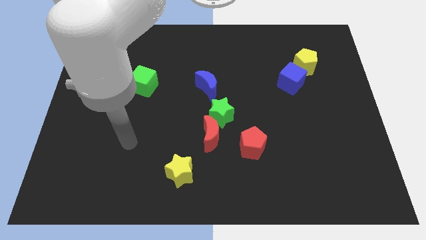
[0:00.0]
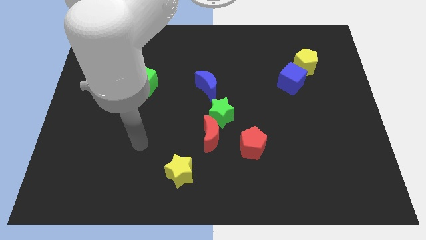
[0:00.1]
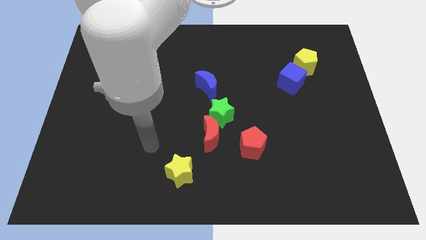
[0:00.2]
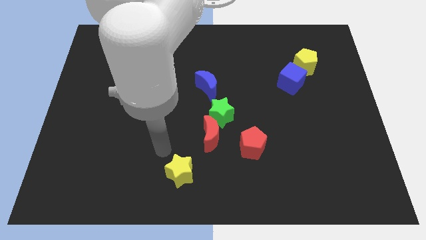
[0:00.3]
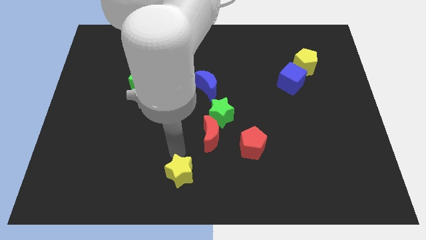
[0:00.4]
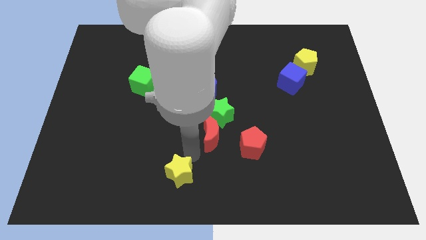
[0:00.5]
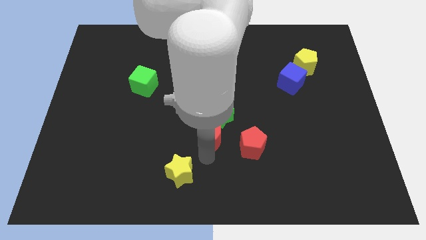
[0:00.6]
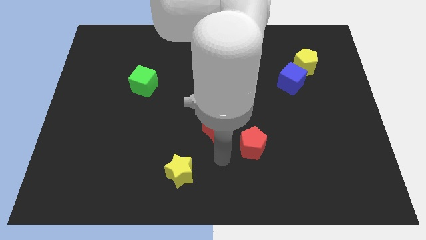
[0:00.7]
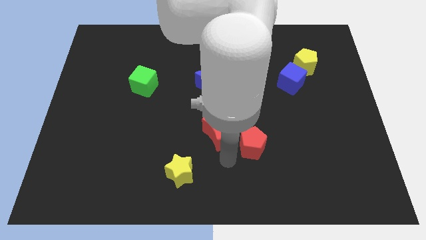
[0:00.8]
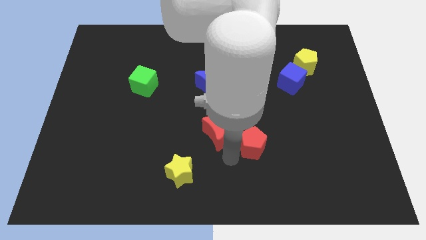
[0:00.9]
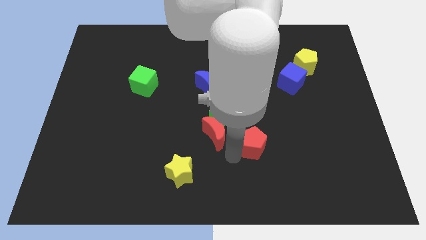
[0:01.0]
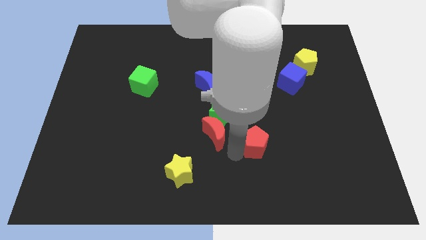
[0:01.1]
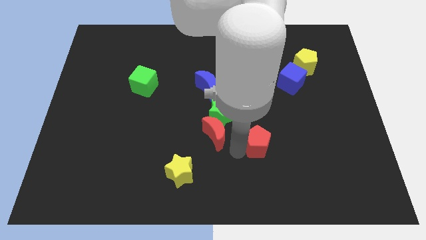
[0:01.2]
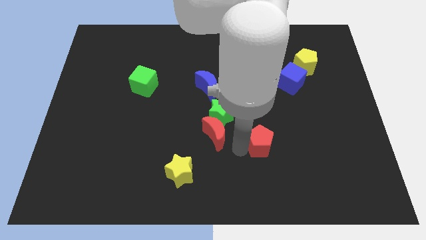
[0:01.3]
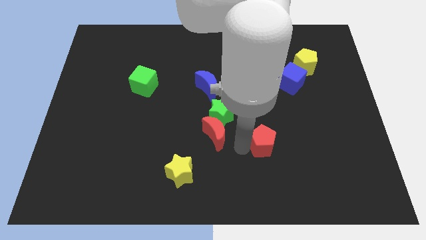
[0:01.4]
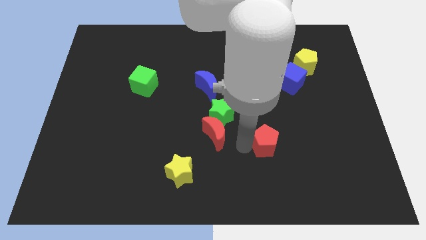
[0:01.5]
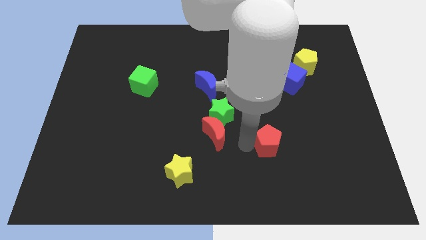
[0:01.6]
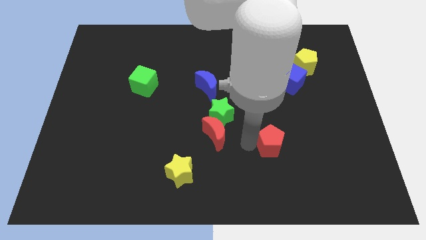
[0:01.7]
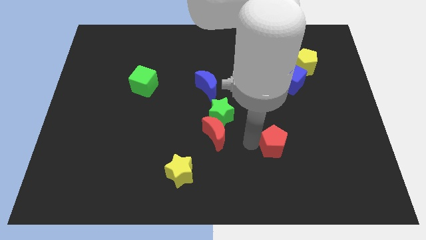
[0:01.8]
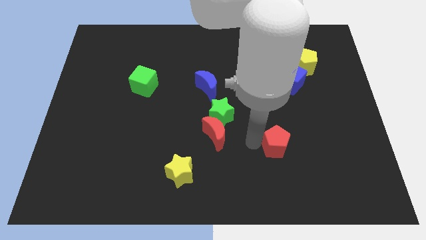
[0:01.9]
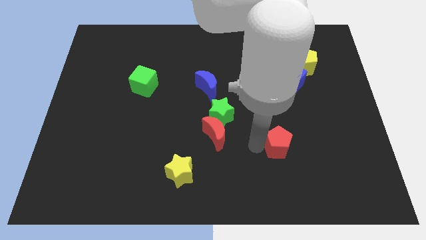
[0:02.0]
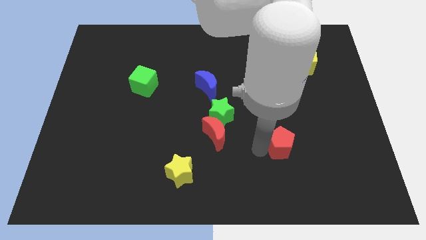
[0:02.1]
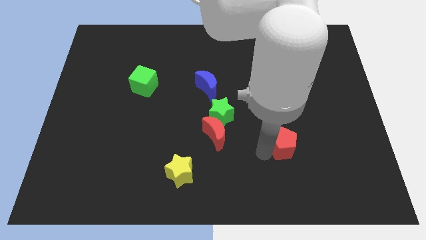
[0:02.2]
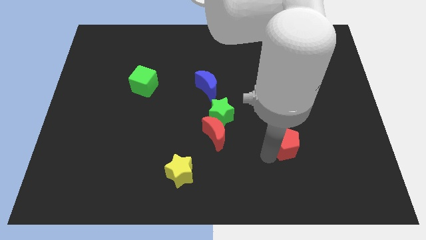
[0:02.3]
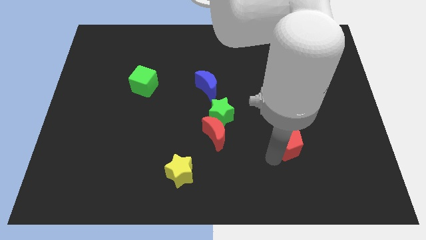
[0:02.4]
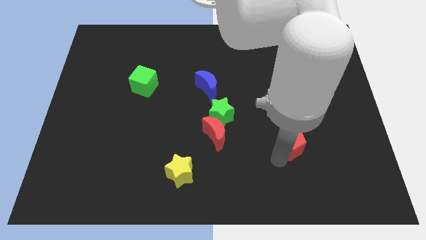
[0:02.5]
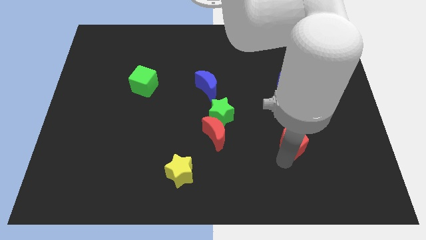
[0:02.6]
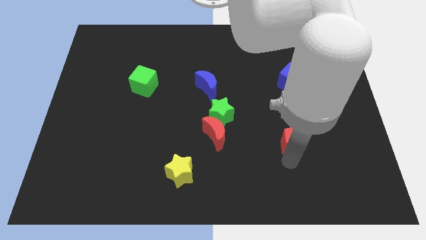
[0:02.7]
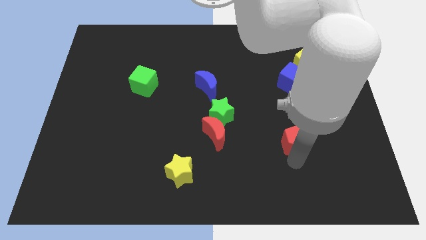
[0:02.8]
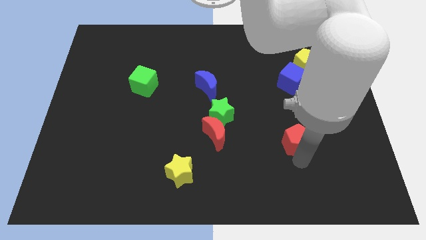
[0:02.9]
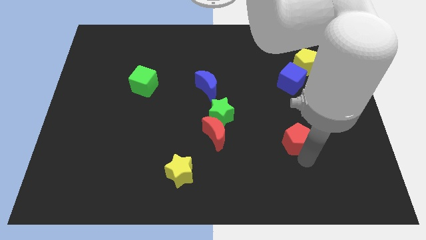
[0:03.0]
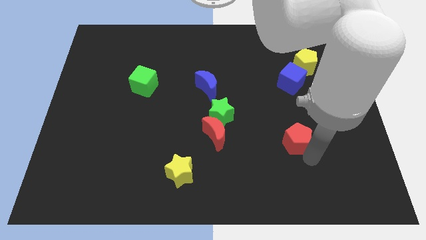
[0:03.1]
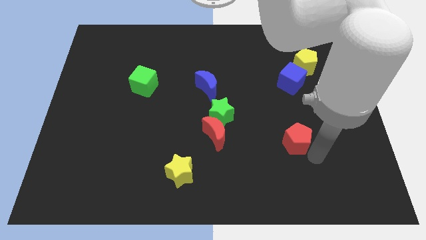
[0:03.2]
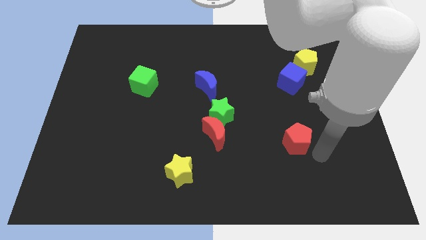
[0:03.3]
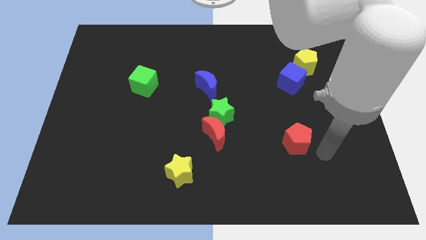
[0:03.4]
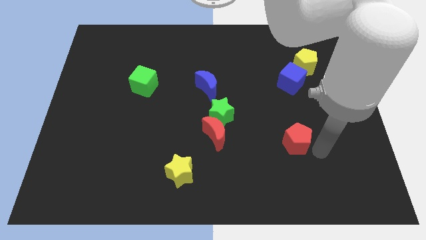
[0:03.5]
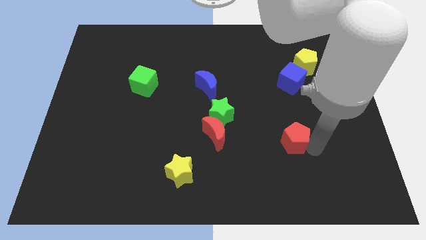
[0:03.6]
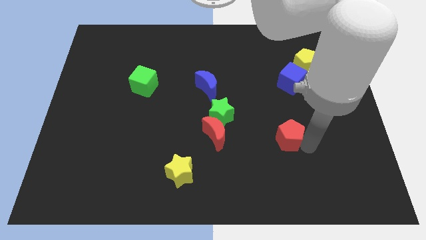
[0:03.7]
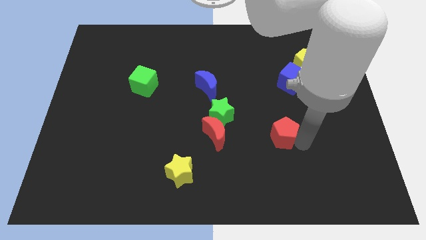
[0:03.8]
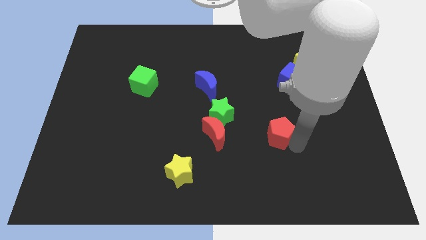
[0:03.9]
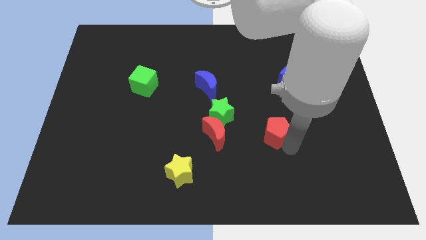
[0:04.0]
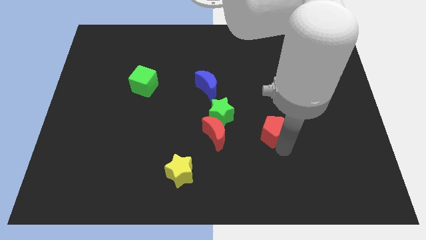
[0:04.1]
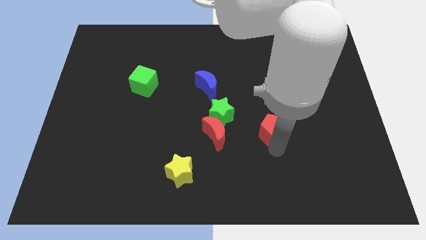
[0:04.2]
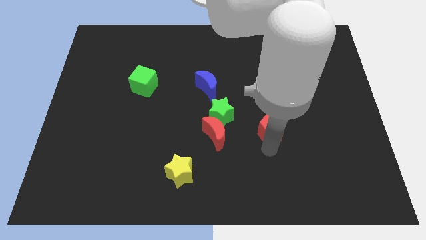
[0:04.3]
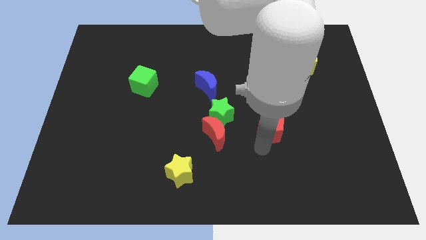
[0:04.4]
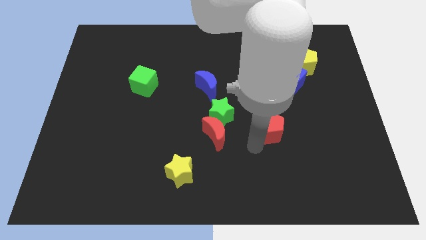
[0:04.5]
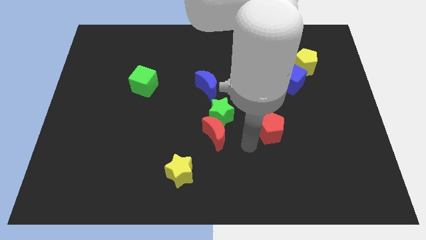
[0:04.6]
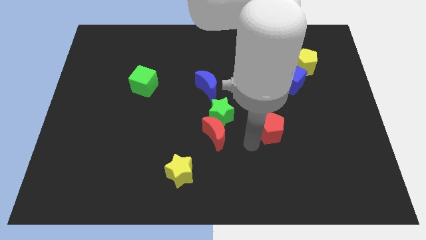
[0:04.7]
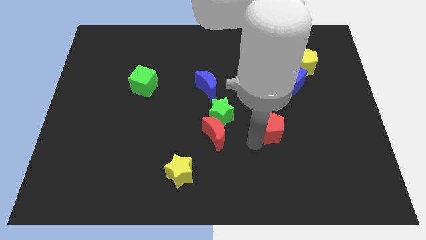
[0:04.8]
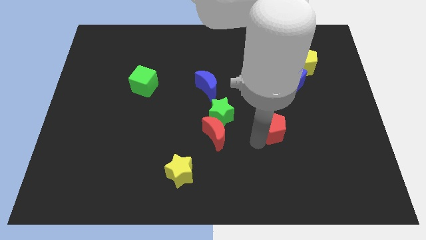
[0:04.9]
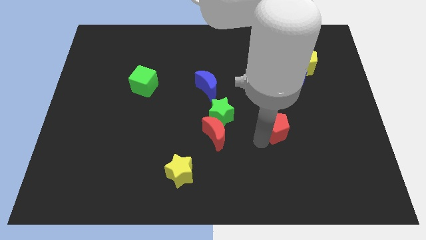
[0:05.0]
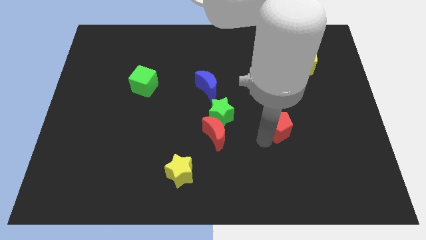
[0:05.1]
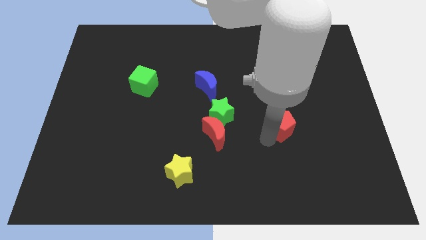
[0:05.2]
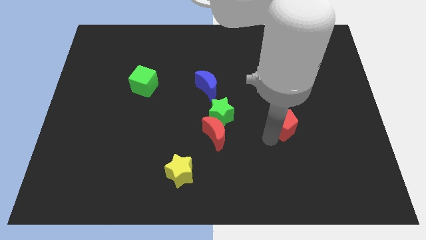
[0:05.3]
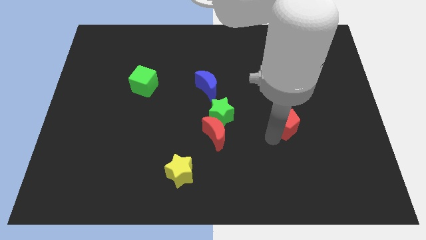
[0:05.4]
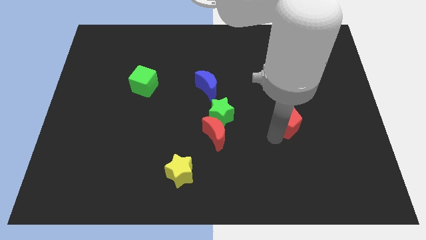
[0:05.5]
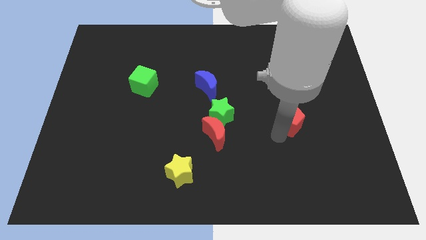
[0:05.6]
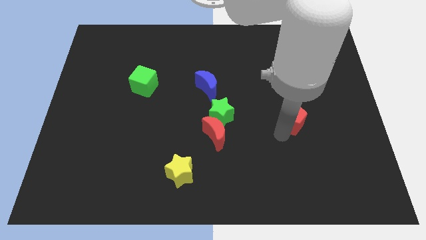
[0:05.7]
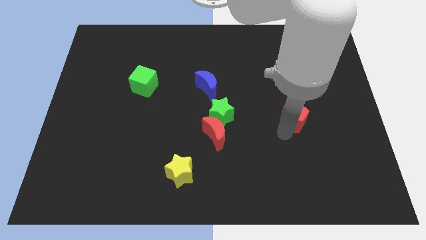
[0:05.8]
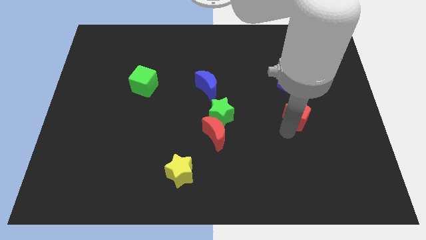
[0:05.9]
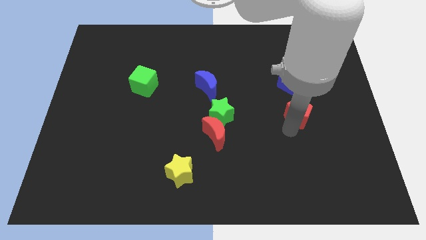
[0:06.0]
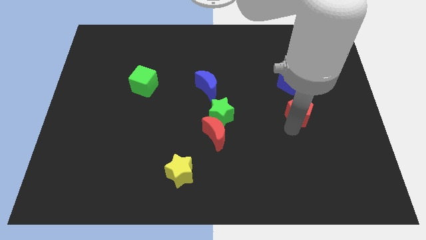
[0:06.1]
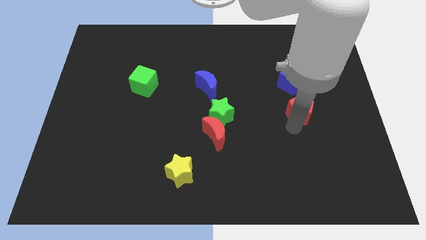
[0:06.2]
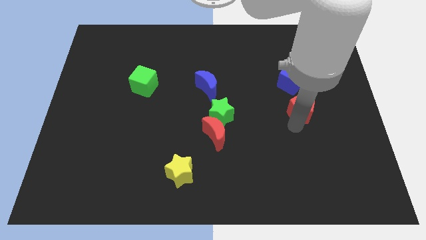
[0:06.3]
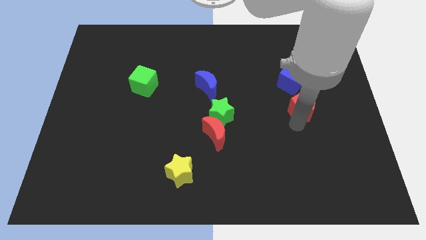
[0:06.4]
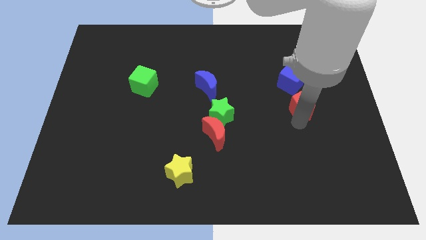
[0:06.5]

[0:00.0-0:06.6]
put the red pentagon to the bottom right side of the blue cube
